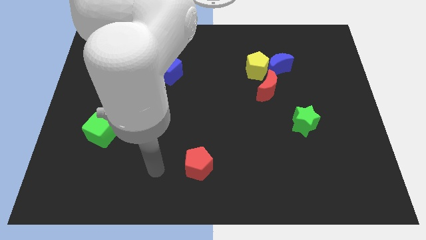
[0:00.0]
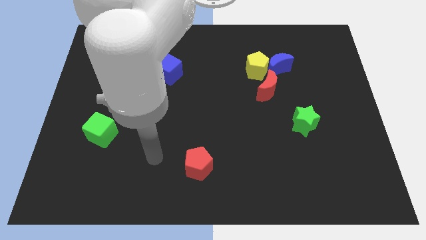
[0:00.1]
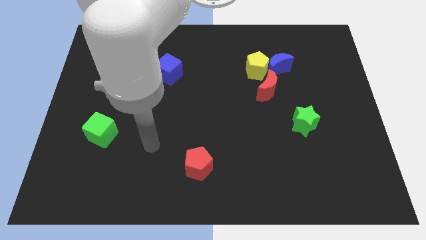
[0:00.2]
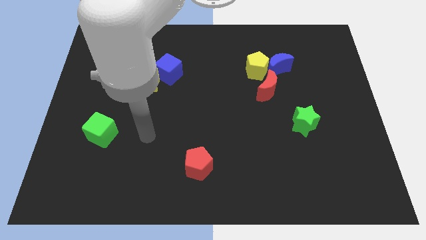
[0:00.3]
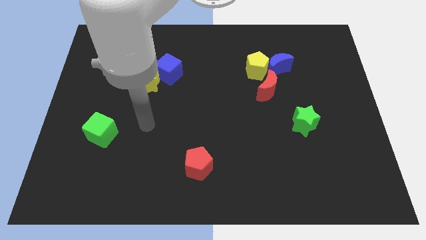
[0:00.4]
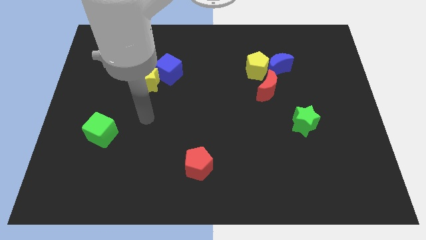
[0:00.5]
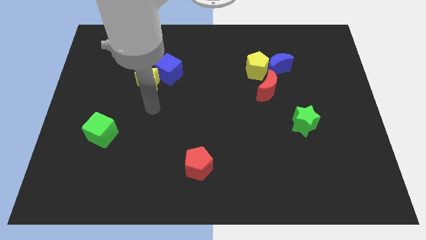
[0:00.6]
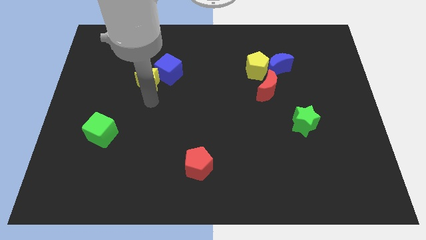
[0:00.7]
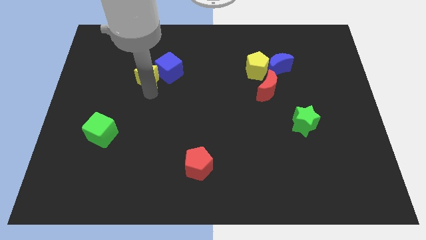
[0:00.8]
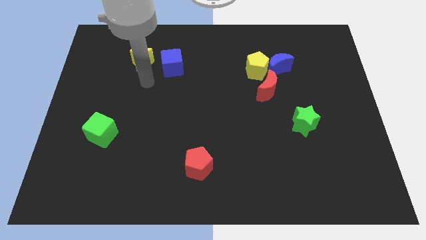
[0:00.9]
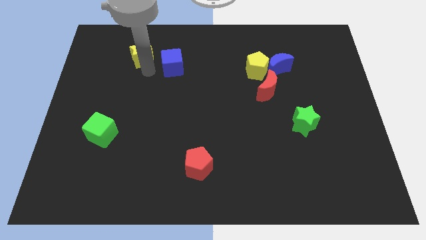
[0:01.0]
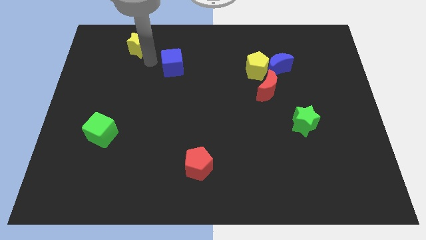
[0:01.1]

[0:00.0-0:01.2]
pull the blue cube apart from the yellow star

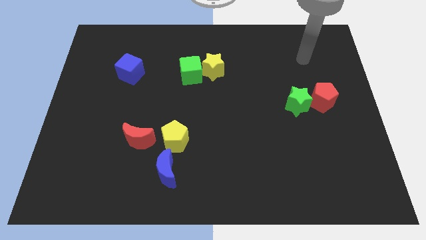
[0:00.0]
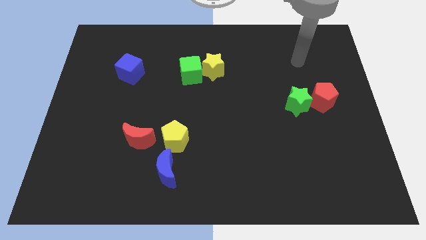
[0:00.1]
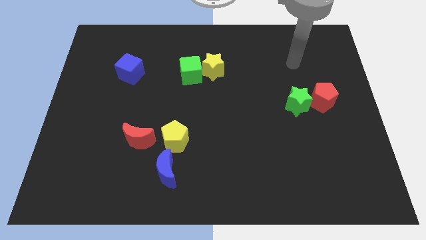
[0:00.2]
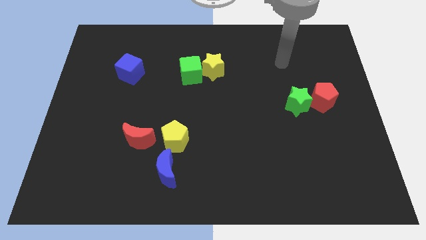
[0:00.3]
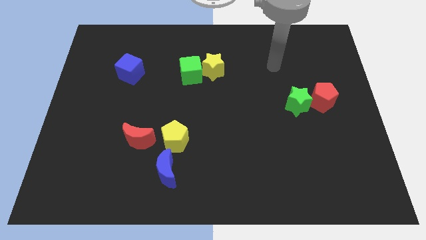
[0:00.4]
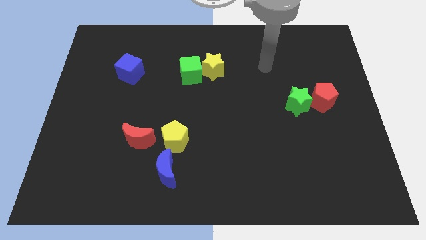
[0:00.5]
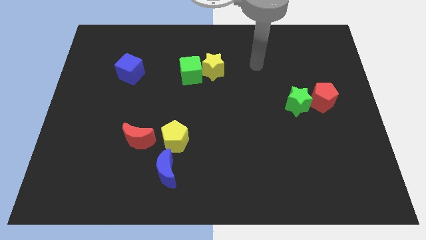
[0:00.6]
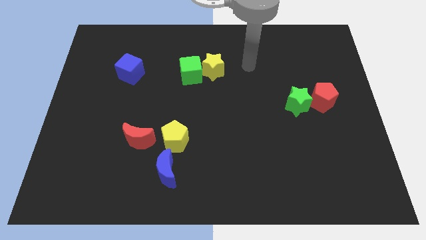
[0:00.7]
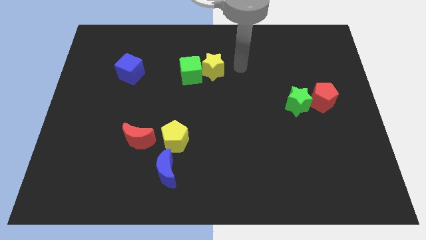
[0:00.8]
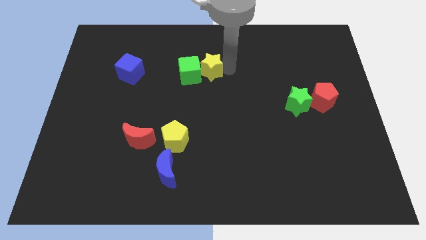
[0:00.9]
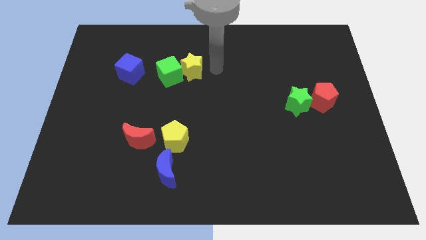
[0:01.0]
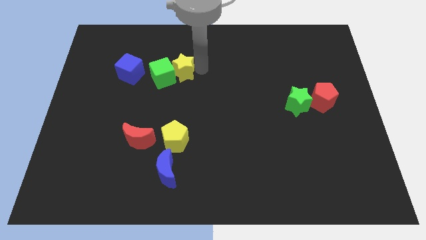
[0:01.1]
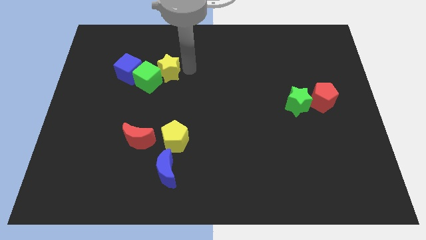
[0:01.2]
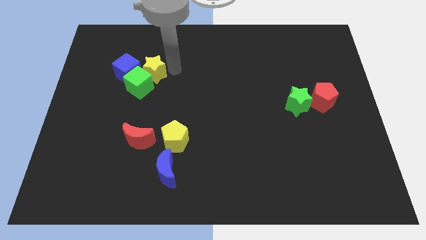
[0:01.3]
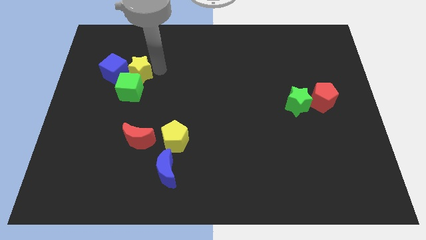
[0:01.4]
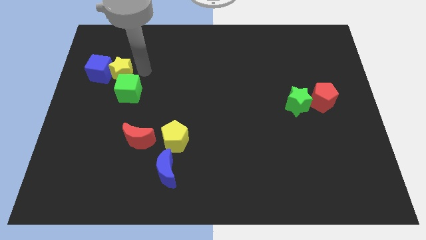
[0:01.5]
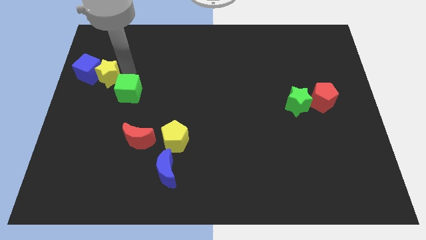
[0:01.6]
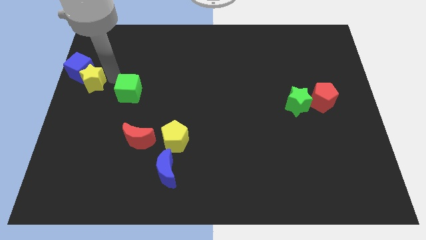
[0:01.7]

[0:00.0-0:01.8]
pull the green cube apart from the yellow star

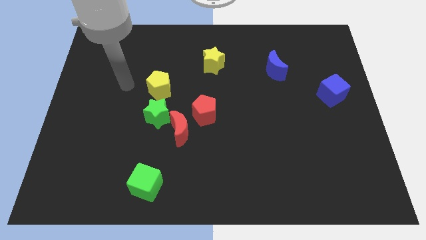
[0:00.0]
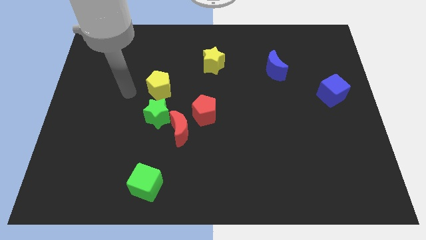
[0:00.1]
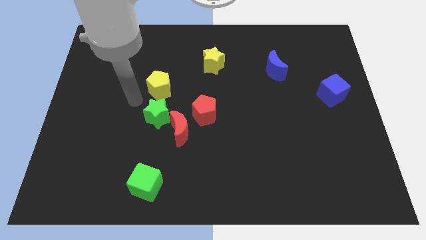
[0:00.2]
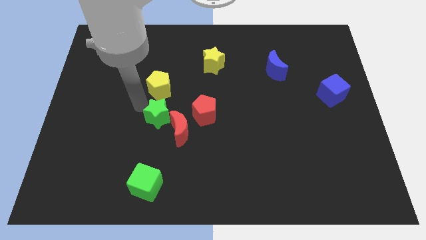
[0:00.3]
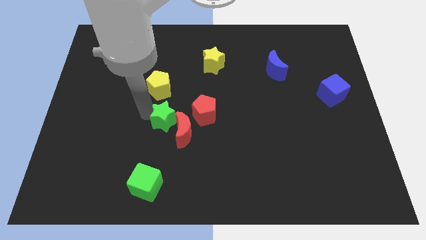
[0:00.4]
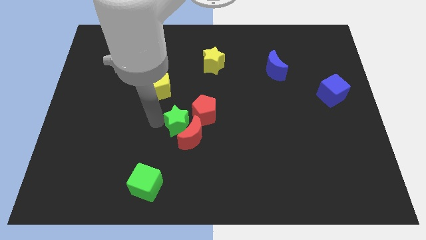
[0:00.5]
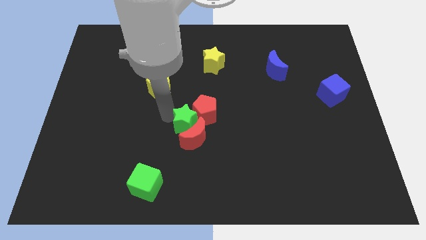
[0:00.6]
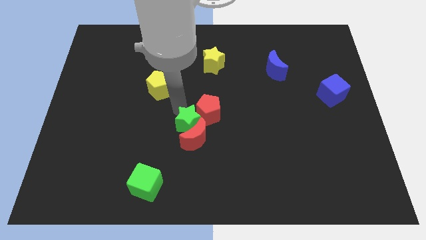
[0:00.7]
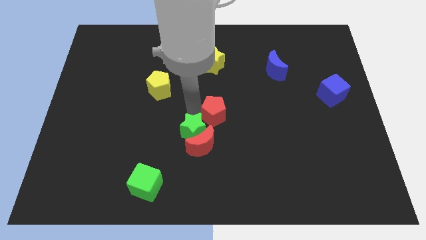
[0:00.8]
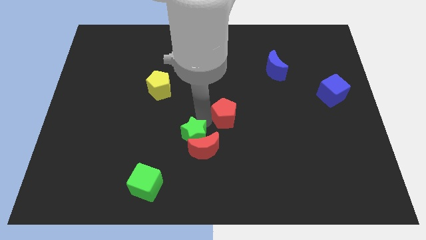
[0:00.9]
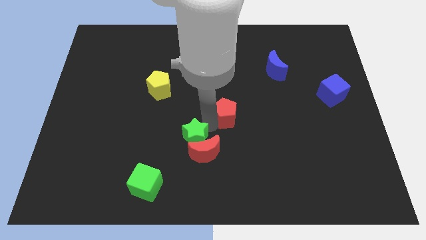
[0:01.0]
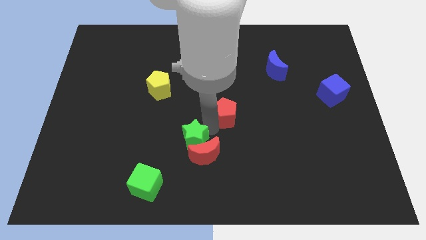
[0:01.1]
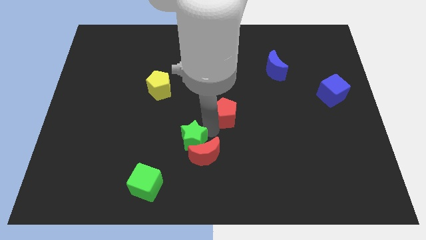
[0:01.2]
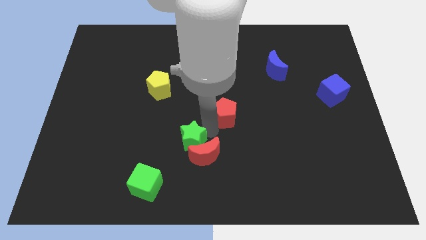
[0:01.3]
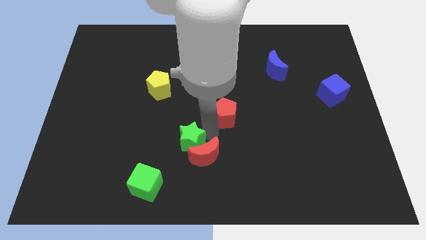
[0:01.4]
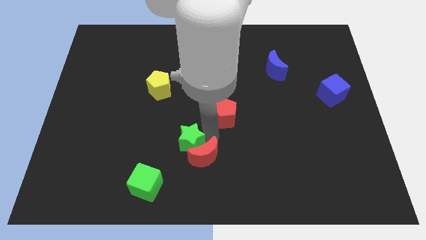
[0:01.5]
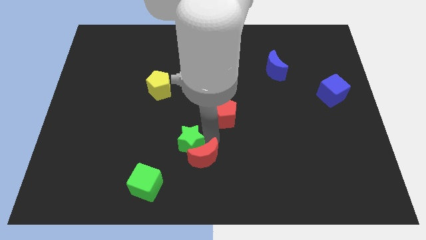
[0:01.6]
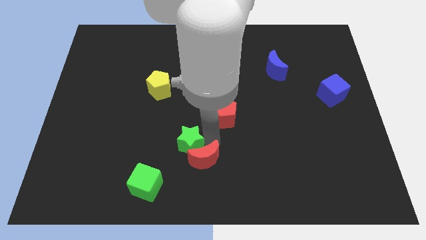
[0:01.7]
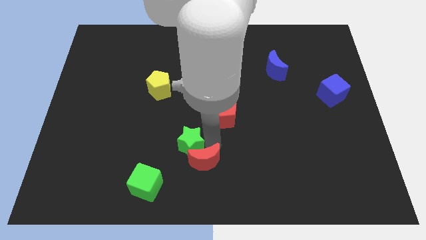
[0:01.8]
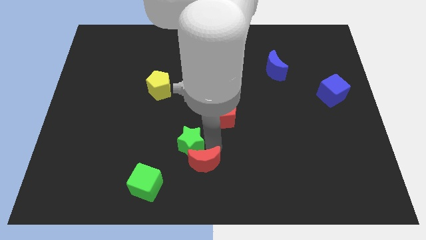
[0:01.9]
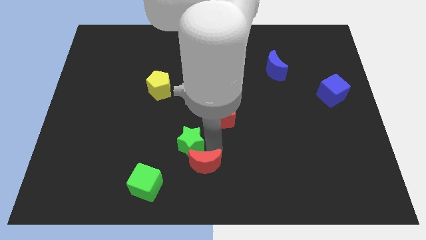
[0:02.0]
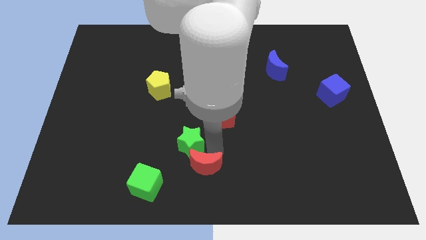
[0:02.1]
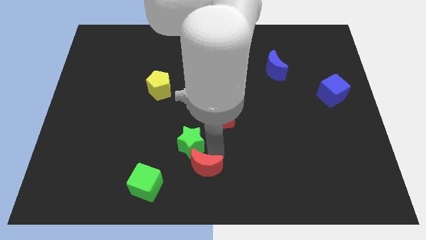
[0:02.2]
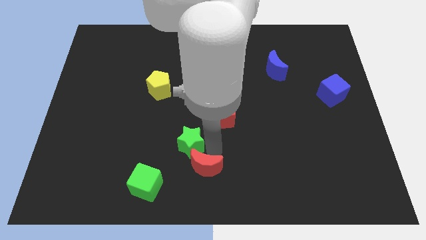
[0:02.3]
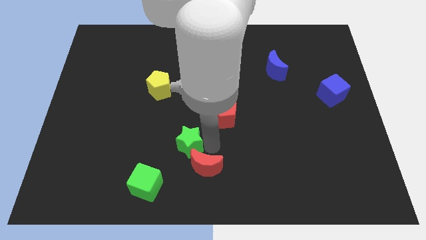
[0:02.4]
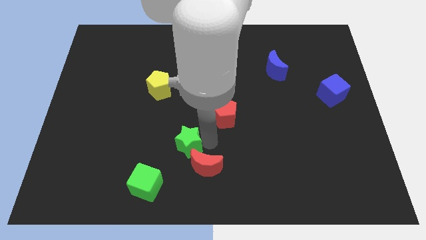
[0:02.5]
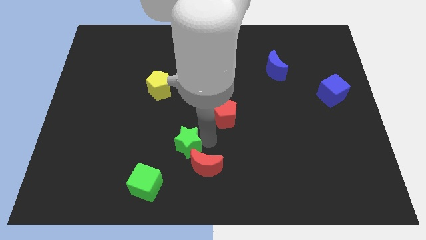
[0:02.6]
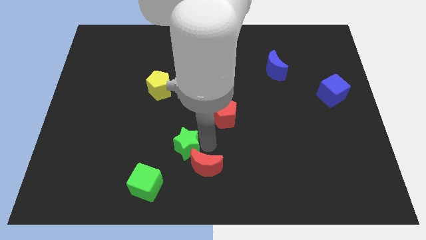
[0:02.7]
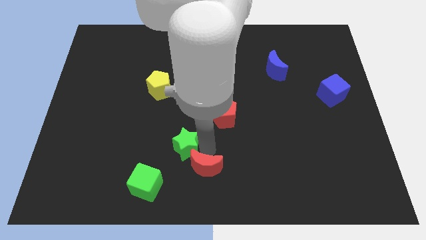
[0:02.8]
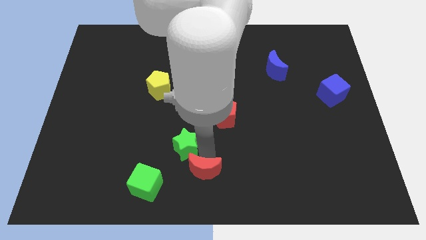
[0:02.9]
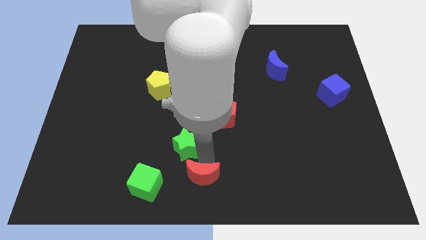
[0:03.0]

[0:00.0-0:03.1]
pull the red moon apart from the green star and red pentagon

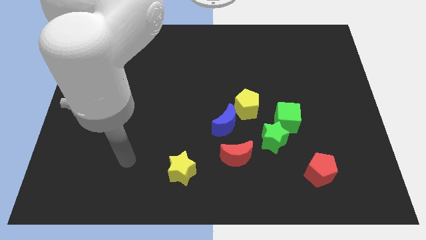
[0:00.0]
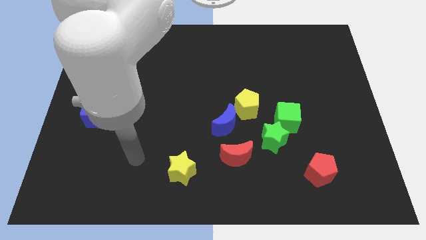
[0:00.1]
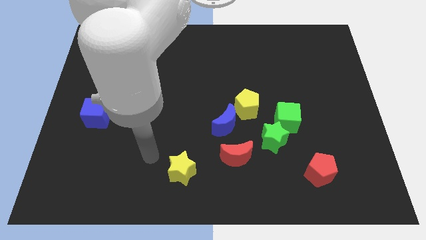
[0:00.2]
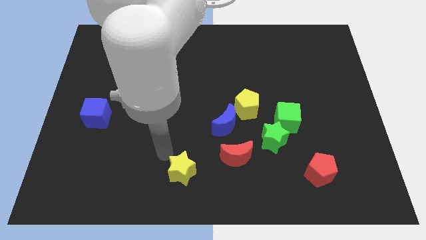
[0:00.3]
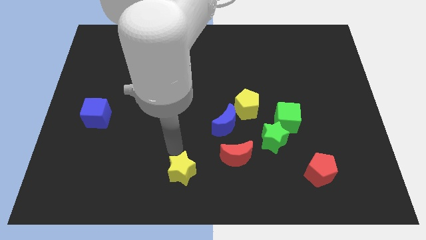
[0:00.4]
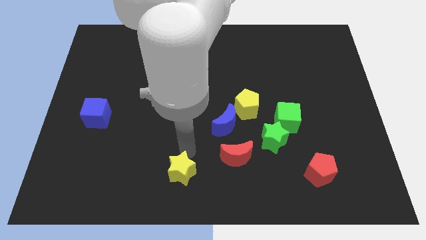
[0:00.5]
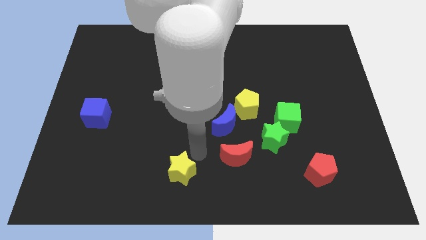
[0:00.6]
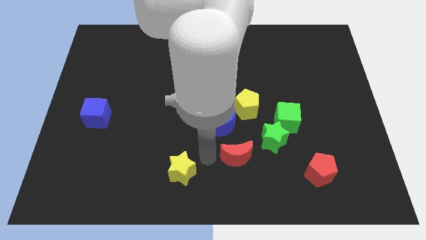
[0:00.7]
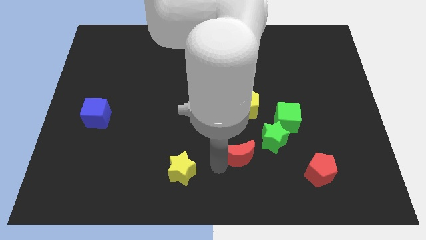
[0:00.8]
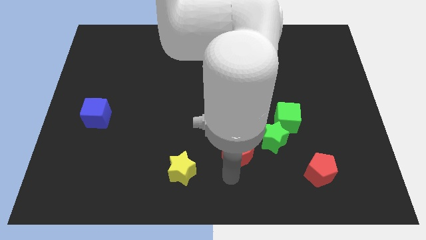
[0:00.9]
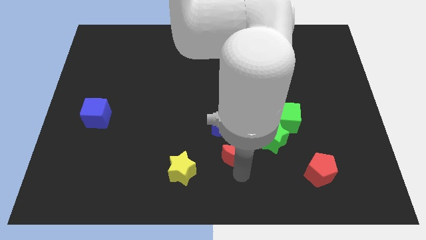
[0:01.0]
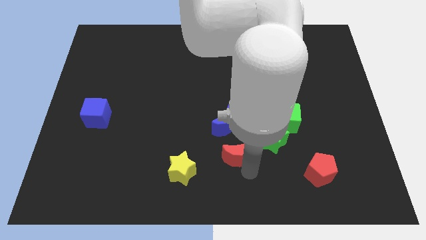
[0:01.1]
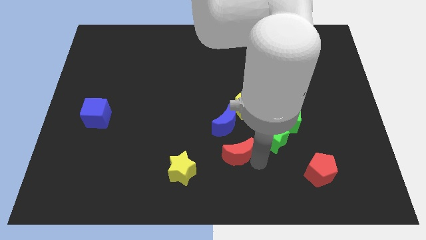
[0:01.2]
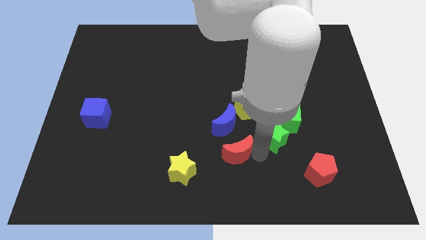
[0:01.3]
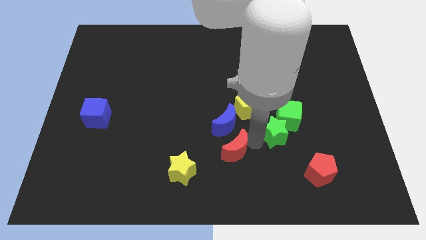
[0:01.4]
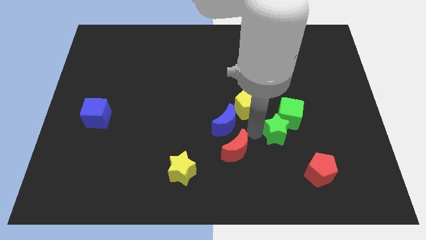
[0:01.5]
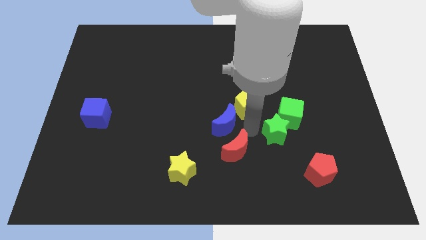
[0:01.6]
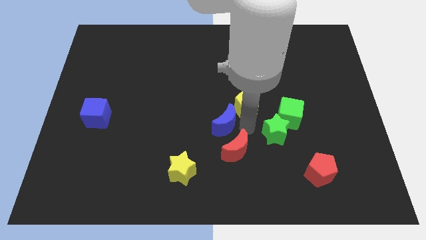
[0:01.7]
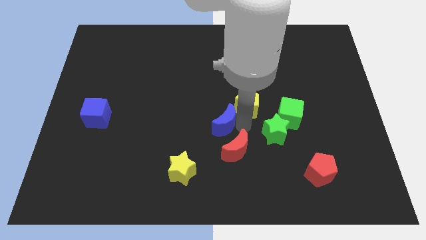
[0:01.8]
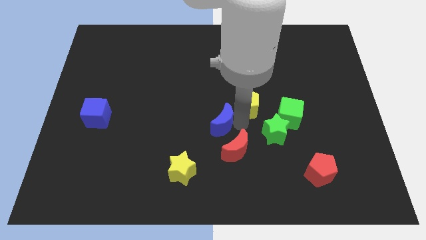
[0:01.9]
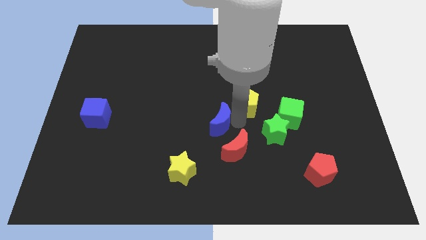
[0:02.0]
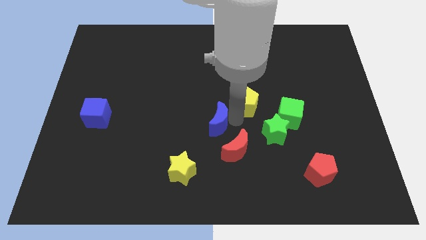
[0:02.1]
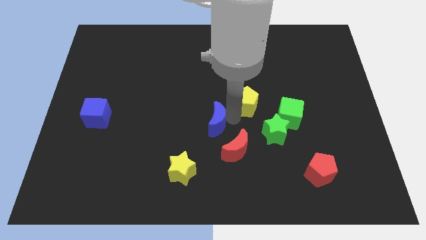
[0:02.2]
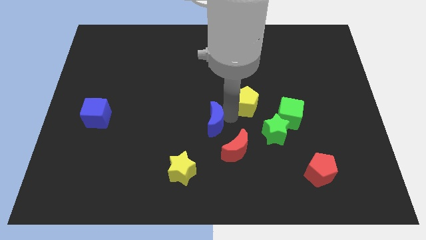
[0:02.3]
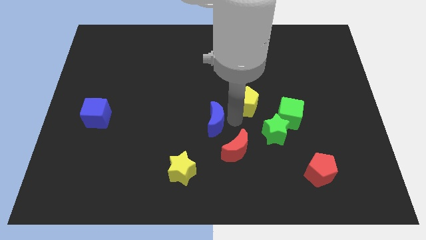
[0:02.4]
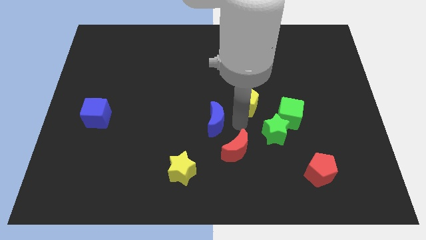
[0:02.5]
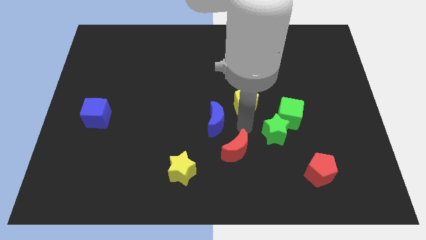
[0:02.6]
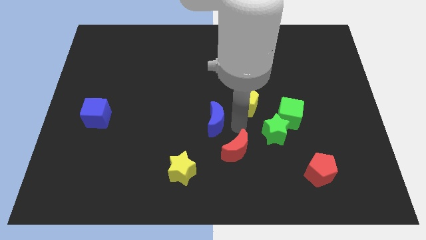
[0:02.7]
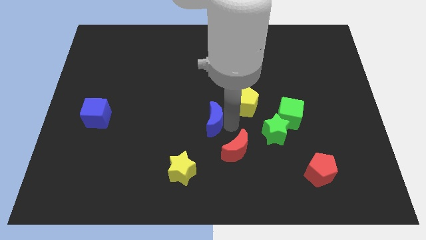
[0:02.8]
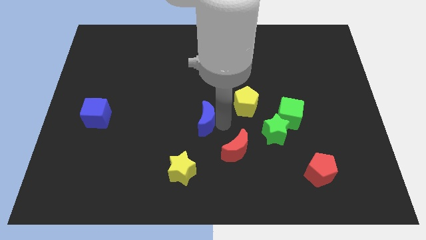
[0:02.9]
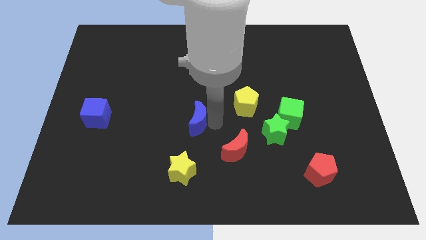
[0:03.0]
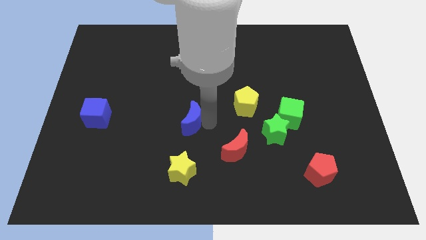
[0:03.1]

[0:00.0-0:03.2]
pull the blue moon apart from the yellow pentagon and red moon

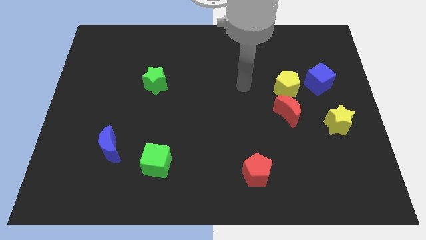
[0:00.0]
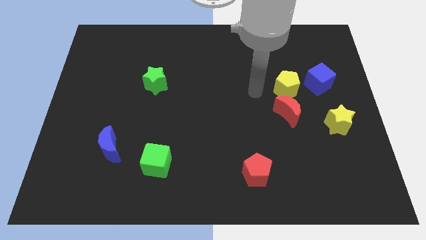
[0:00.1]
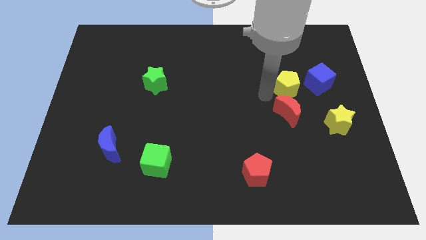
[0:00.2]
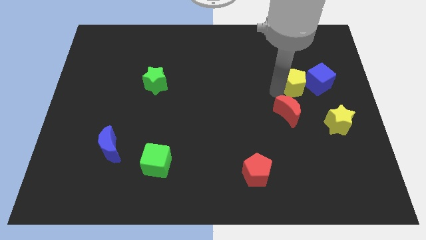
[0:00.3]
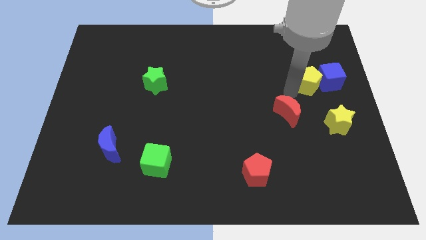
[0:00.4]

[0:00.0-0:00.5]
move the red moon away from the yellow pentagon
